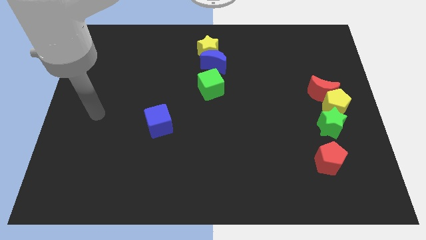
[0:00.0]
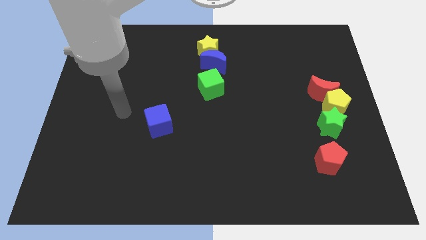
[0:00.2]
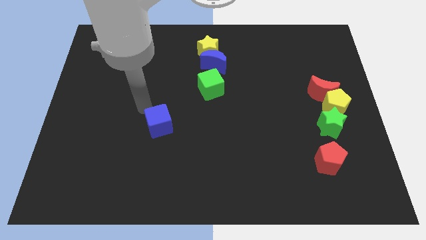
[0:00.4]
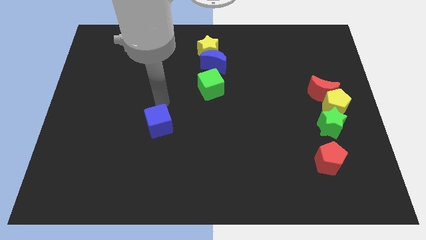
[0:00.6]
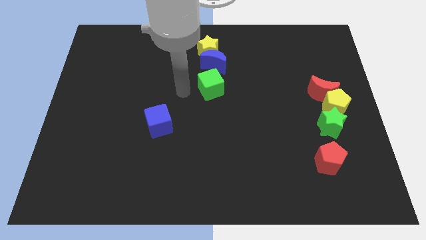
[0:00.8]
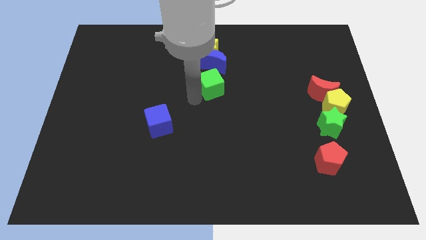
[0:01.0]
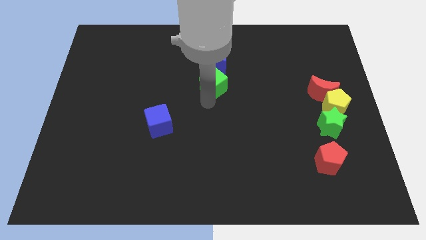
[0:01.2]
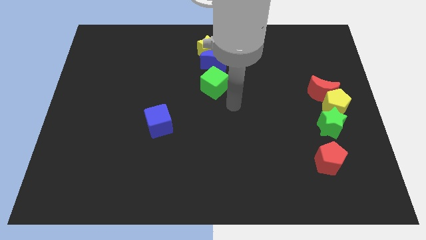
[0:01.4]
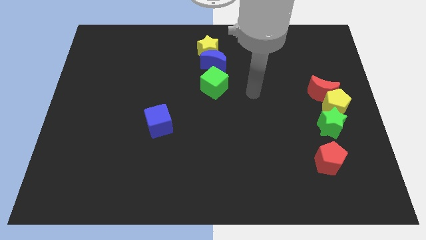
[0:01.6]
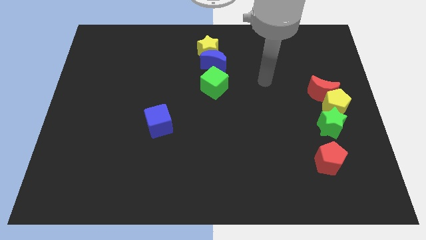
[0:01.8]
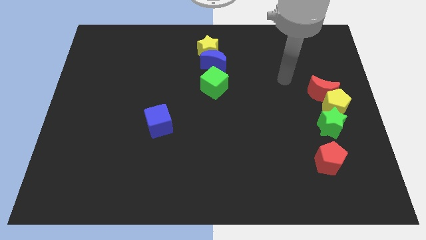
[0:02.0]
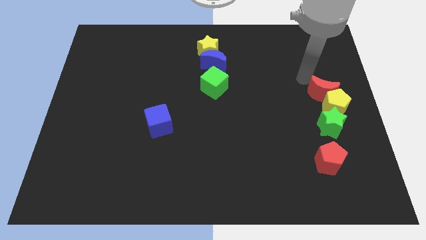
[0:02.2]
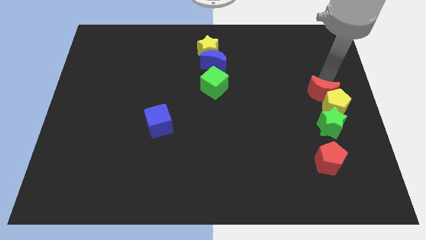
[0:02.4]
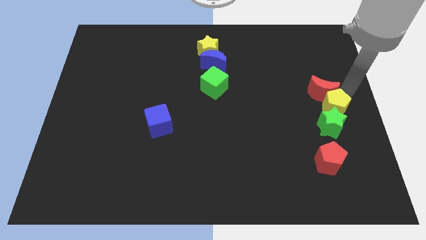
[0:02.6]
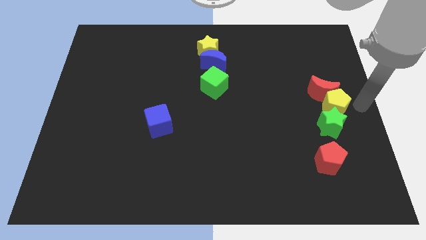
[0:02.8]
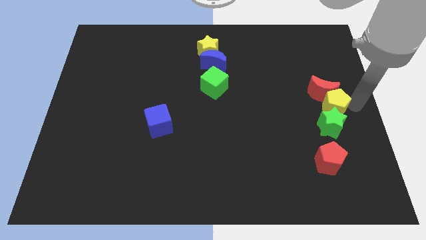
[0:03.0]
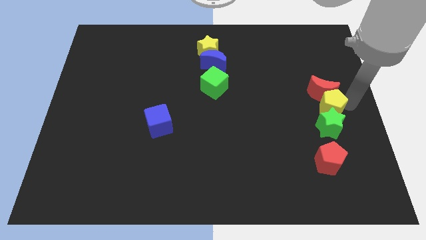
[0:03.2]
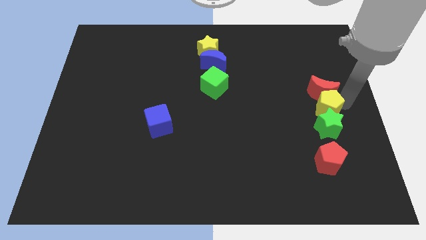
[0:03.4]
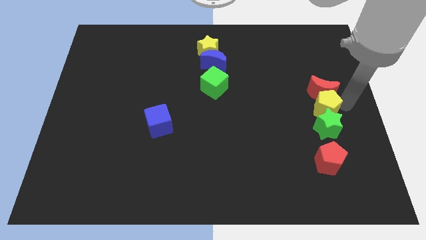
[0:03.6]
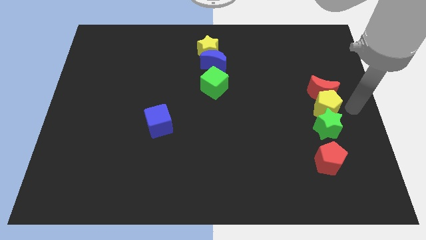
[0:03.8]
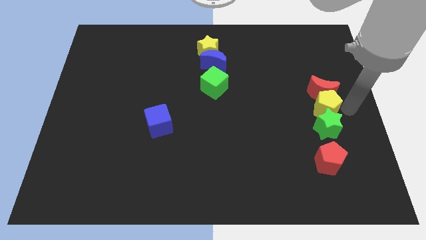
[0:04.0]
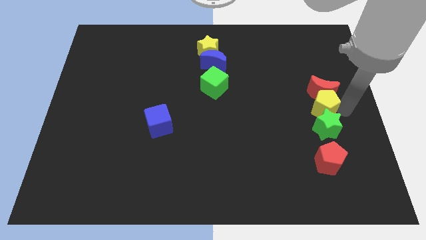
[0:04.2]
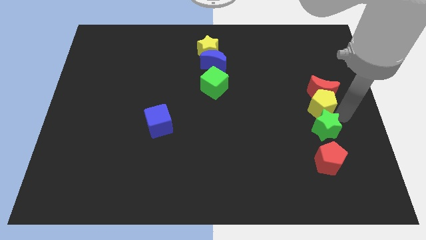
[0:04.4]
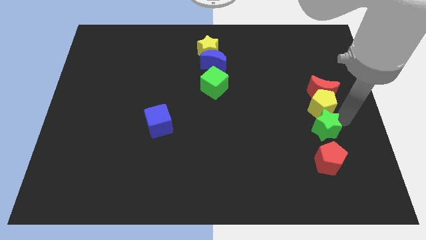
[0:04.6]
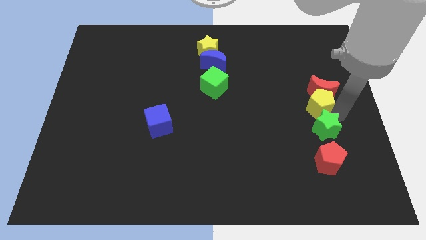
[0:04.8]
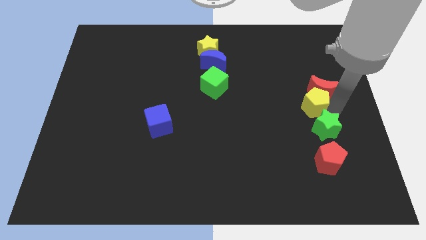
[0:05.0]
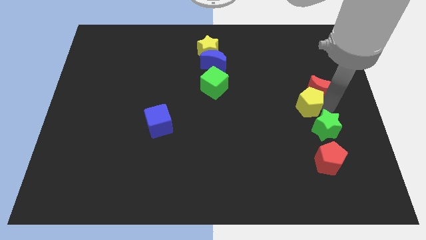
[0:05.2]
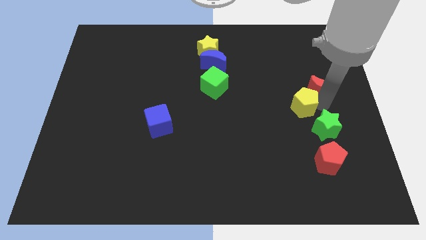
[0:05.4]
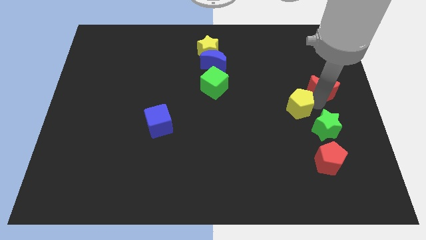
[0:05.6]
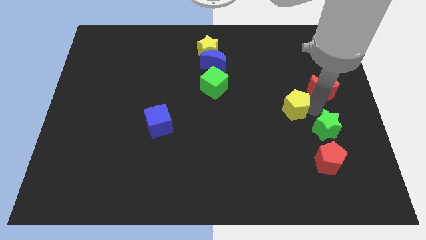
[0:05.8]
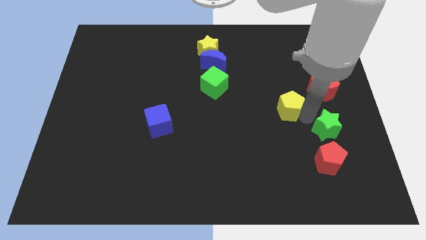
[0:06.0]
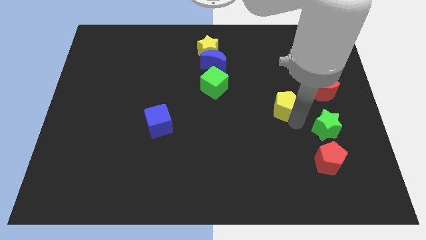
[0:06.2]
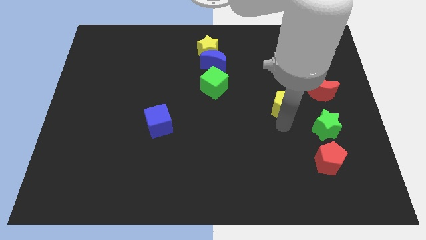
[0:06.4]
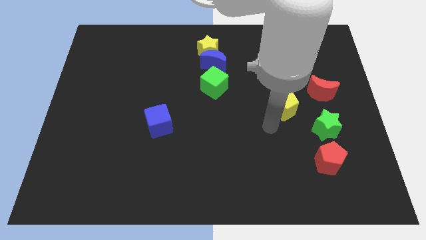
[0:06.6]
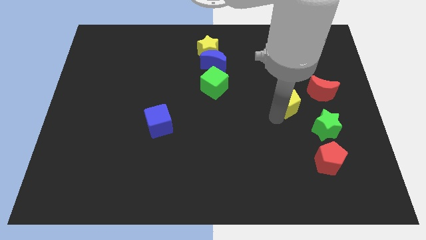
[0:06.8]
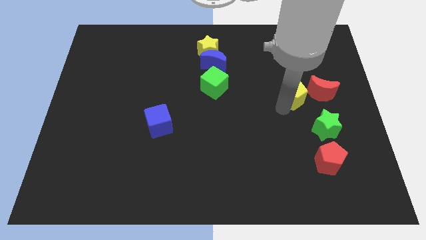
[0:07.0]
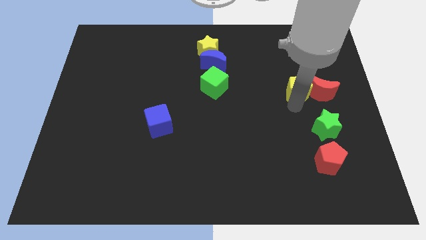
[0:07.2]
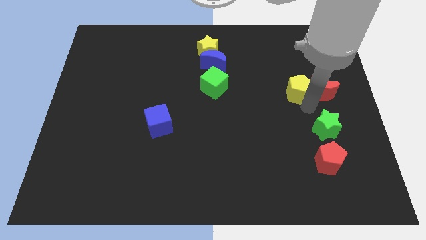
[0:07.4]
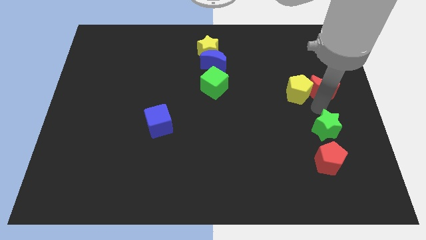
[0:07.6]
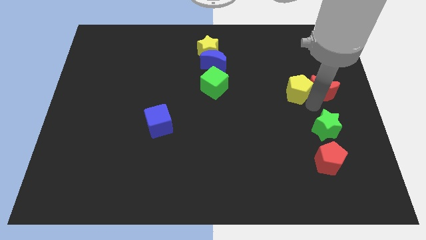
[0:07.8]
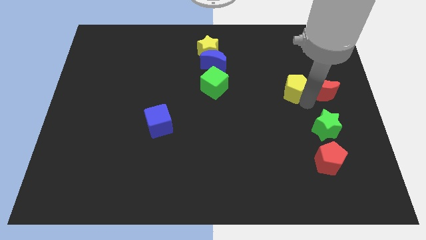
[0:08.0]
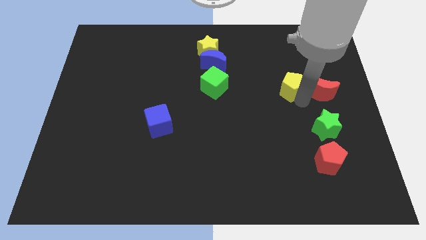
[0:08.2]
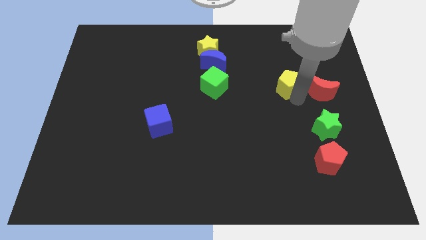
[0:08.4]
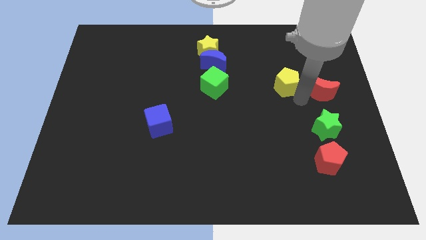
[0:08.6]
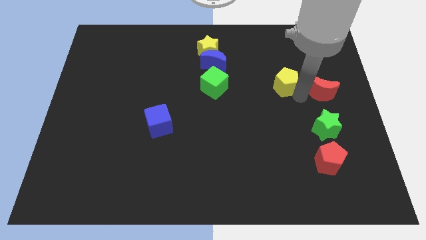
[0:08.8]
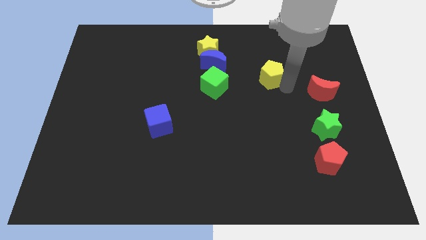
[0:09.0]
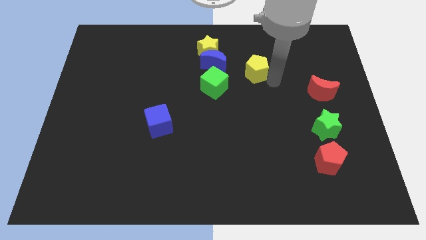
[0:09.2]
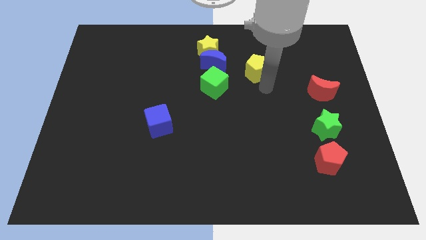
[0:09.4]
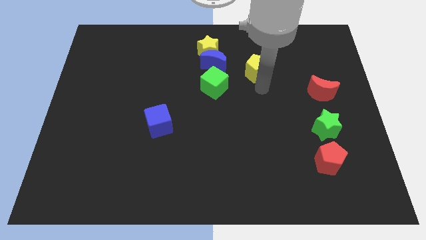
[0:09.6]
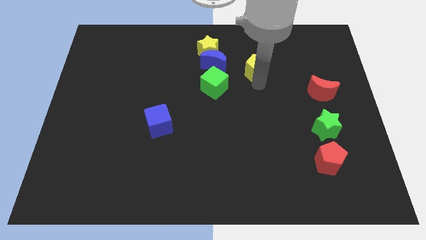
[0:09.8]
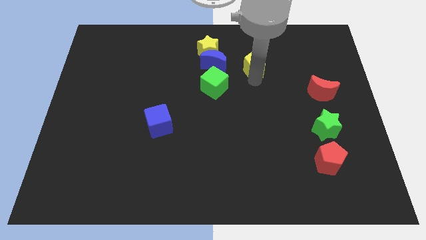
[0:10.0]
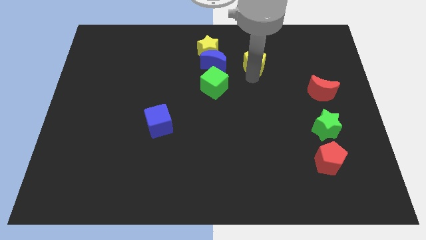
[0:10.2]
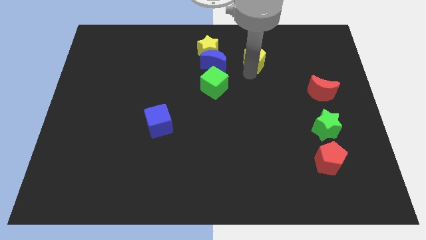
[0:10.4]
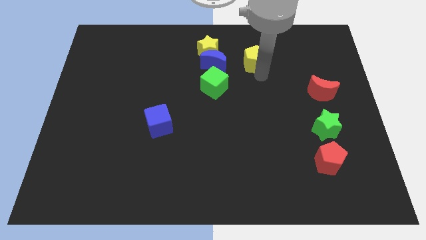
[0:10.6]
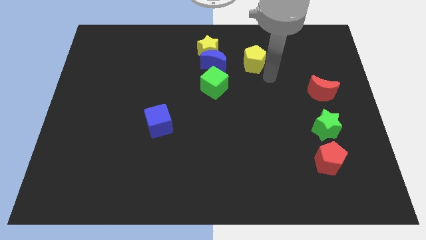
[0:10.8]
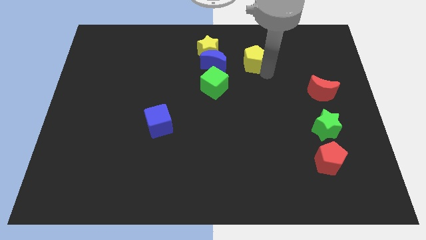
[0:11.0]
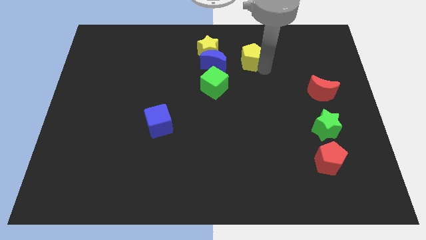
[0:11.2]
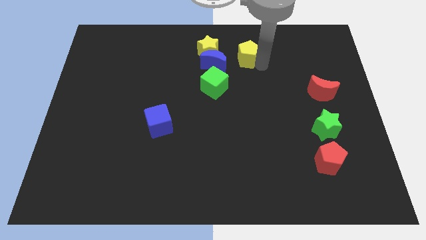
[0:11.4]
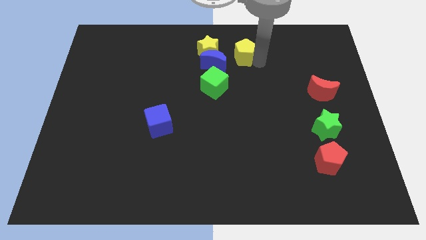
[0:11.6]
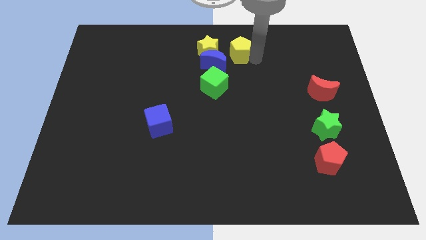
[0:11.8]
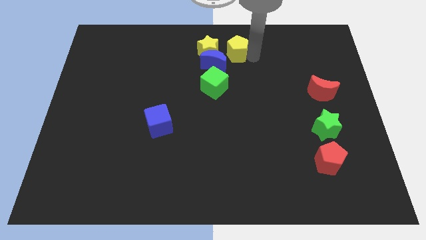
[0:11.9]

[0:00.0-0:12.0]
put the yellow pentagon to the top side

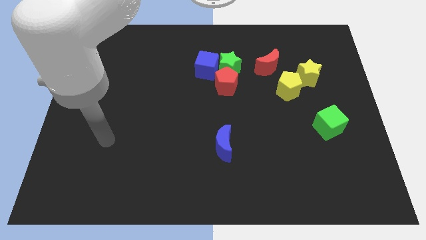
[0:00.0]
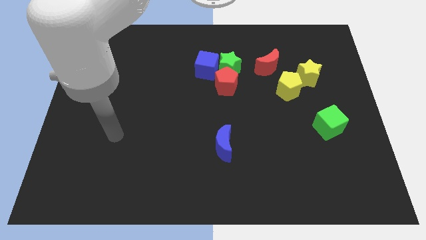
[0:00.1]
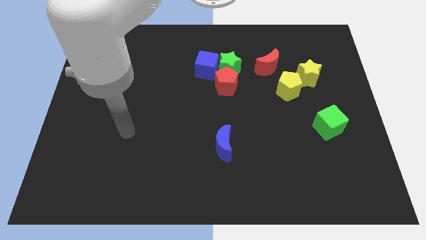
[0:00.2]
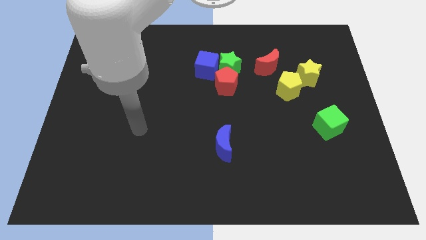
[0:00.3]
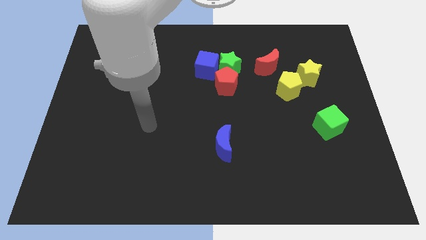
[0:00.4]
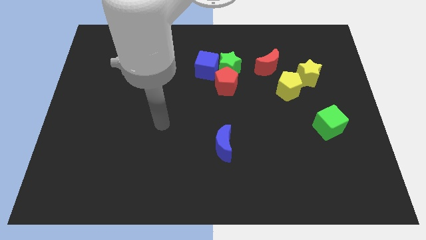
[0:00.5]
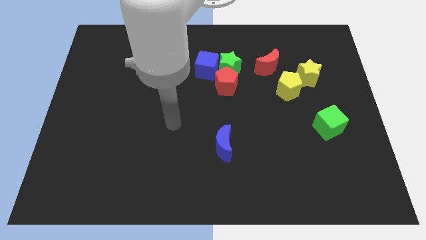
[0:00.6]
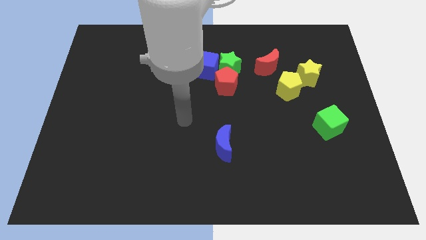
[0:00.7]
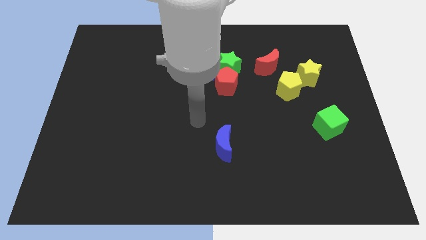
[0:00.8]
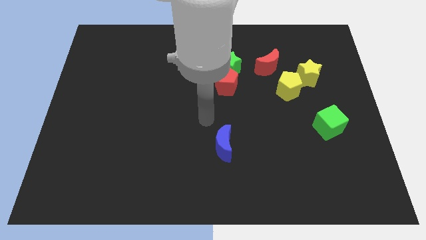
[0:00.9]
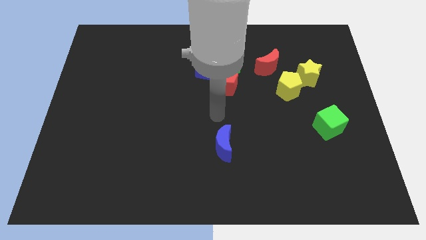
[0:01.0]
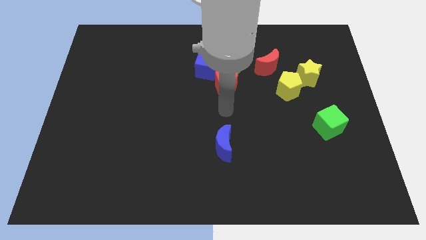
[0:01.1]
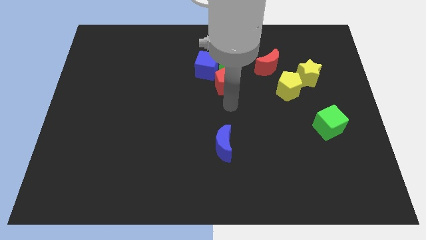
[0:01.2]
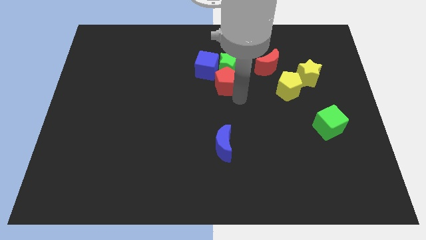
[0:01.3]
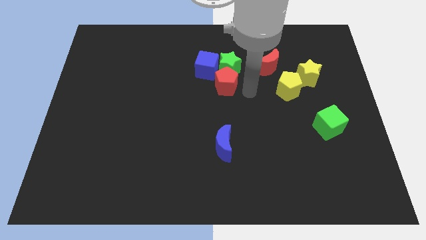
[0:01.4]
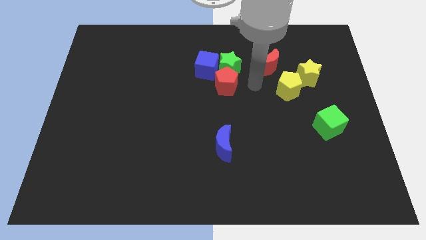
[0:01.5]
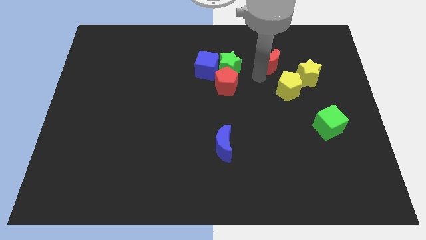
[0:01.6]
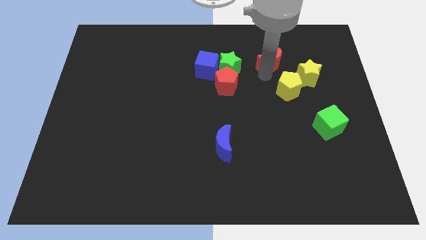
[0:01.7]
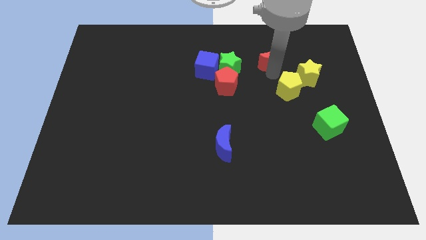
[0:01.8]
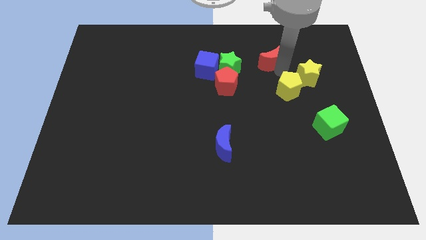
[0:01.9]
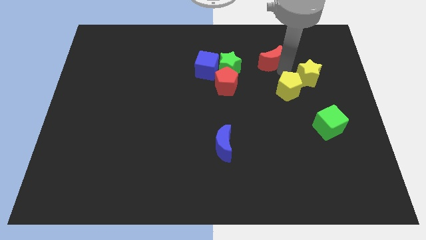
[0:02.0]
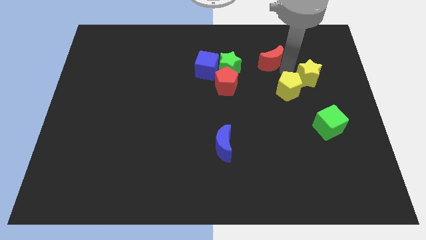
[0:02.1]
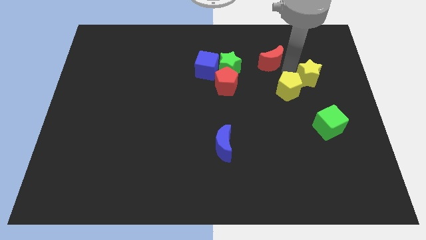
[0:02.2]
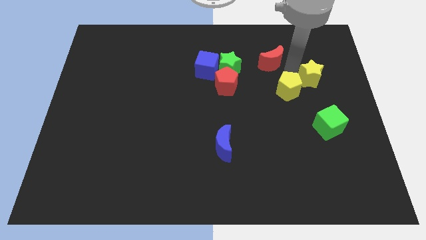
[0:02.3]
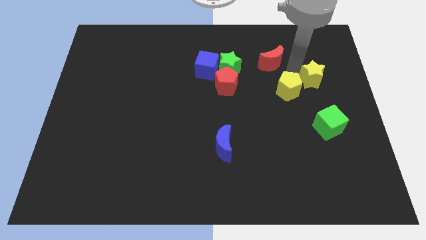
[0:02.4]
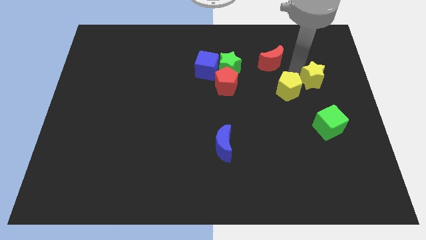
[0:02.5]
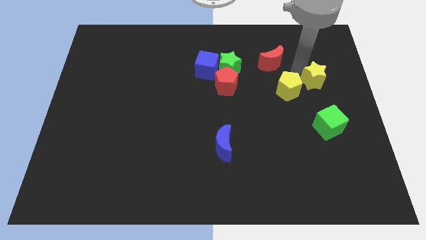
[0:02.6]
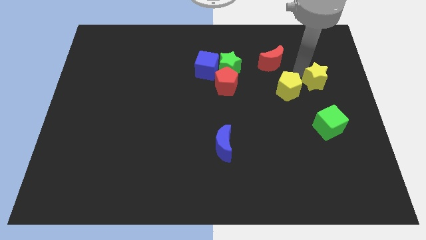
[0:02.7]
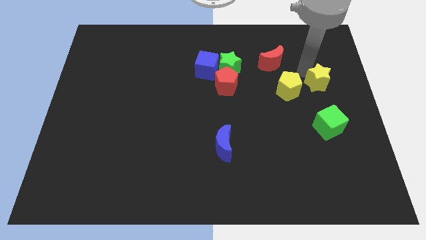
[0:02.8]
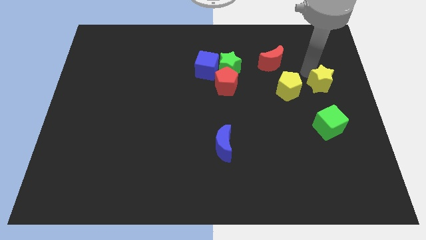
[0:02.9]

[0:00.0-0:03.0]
push the yellow star to the right side of the board
